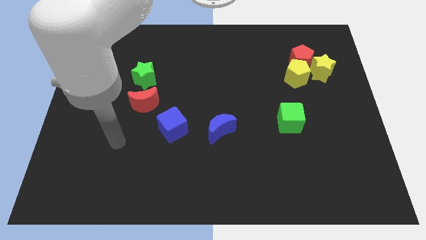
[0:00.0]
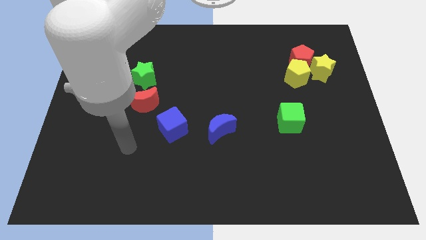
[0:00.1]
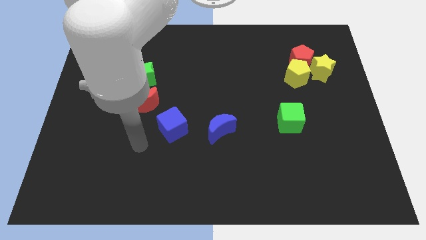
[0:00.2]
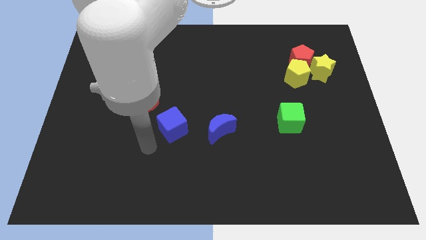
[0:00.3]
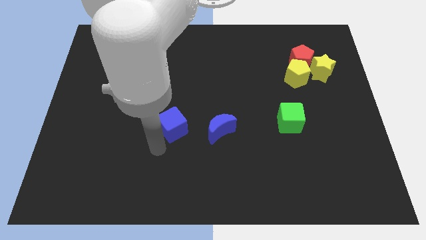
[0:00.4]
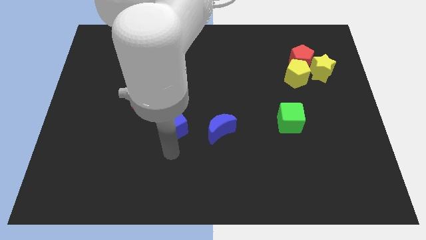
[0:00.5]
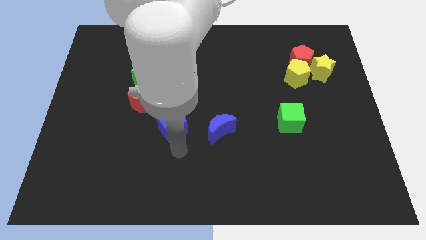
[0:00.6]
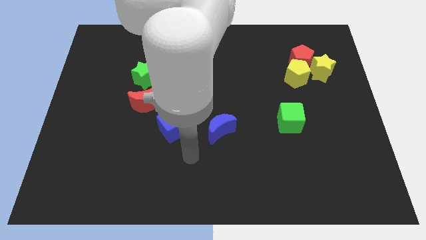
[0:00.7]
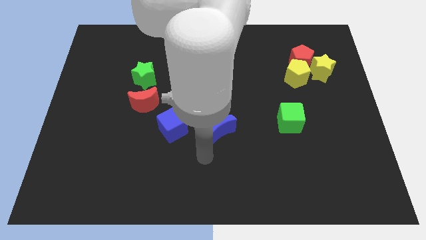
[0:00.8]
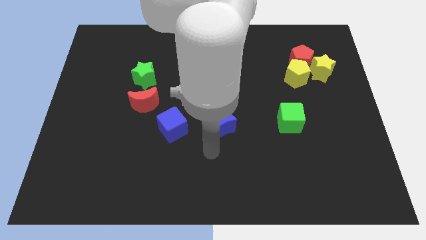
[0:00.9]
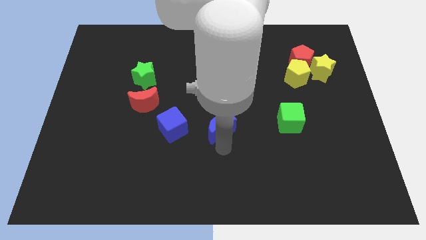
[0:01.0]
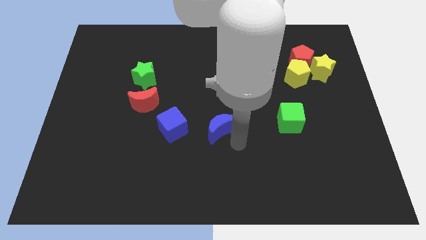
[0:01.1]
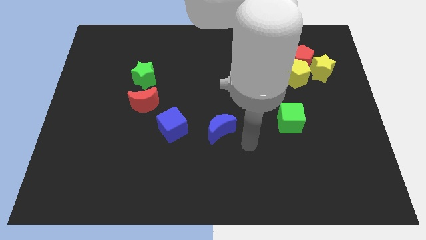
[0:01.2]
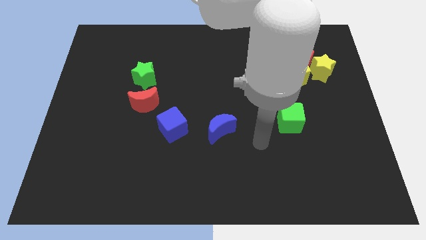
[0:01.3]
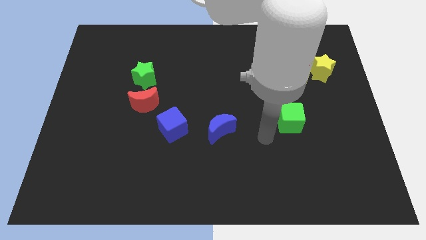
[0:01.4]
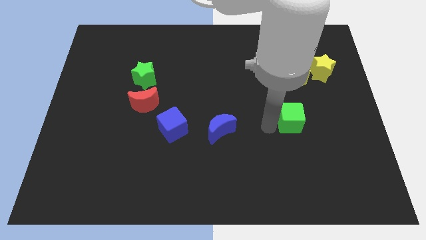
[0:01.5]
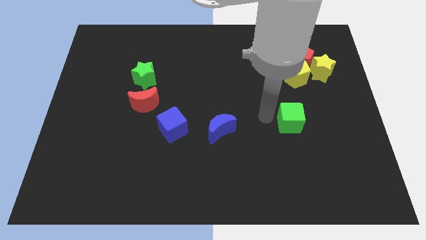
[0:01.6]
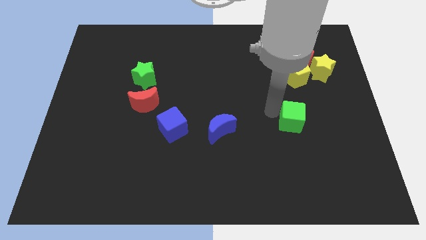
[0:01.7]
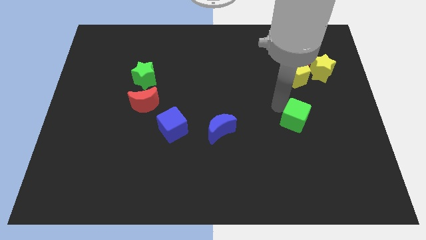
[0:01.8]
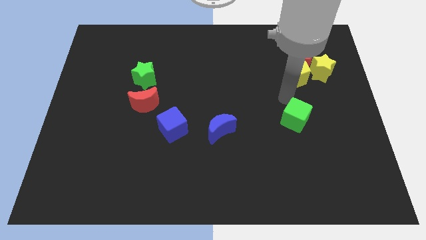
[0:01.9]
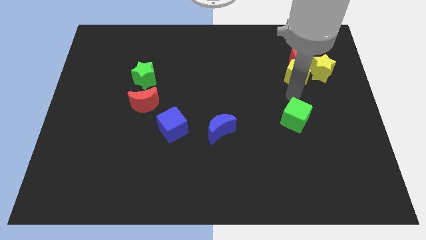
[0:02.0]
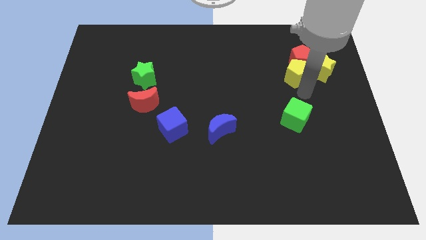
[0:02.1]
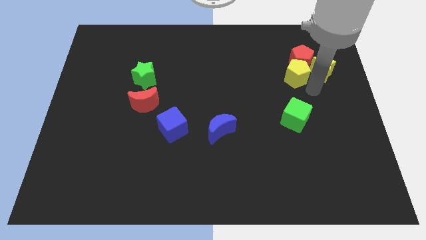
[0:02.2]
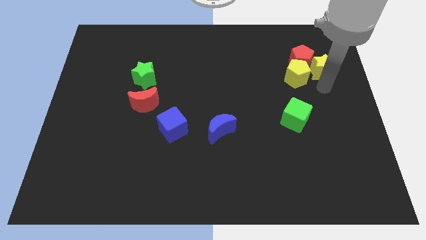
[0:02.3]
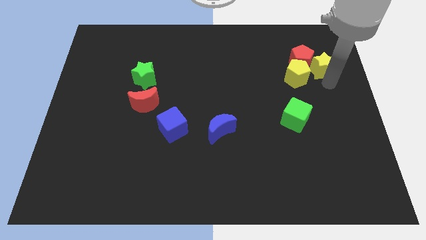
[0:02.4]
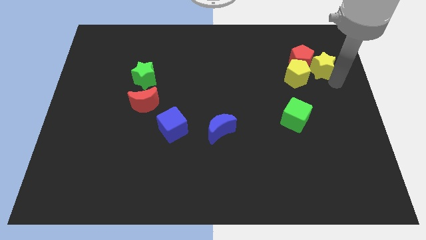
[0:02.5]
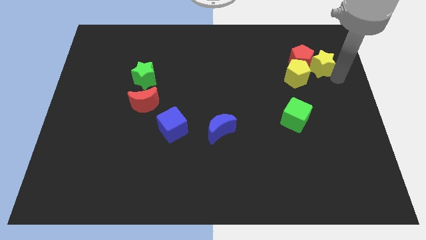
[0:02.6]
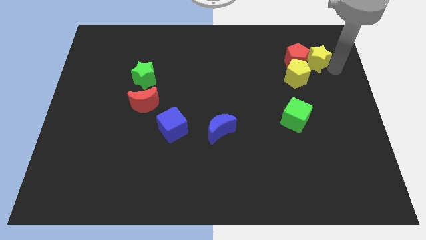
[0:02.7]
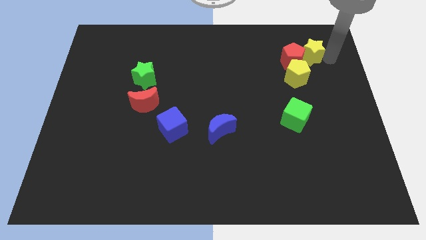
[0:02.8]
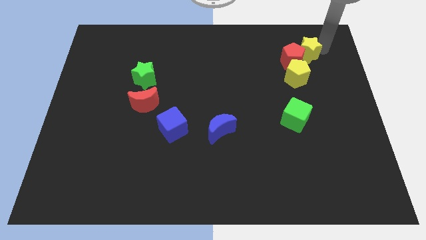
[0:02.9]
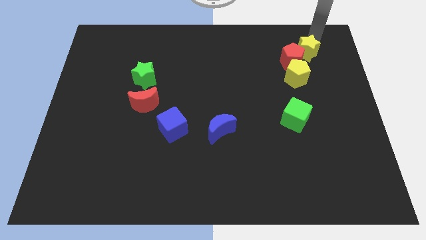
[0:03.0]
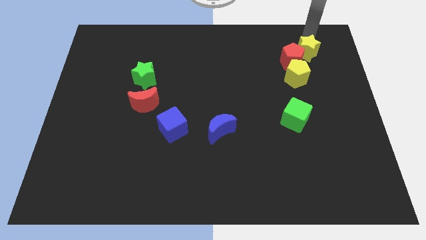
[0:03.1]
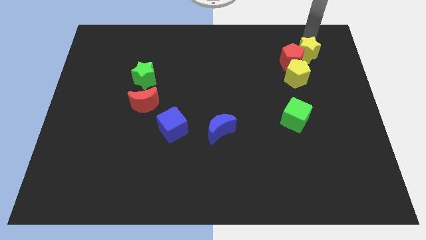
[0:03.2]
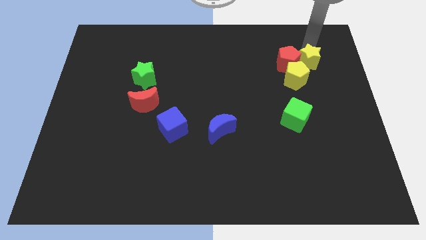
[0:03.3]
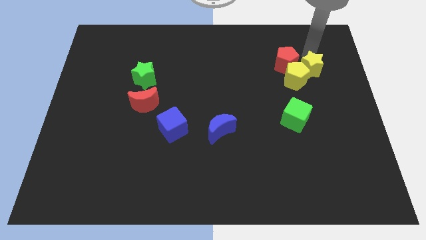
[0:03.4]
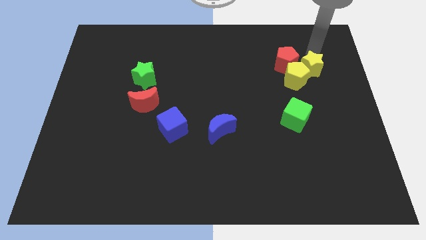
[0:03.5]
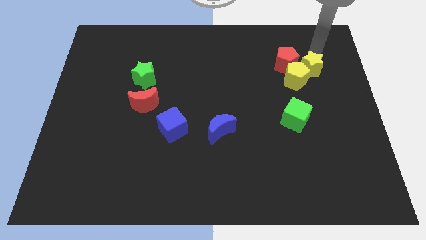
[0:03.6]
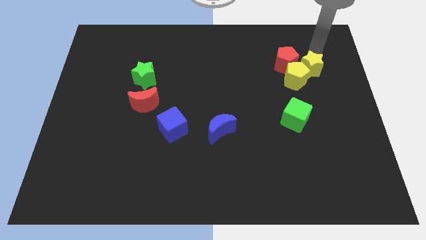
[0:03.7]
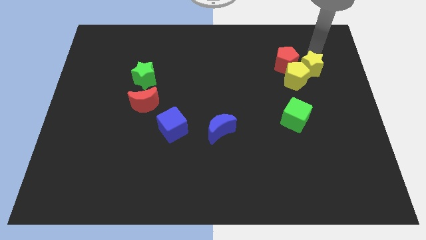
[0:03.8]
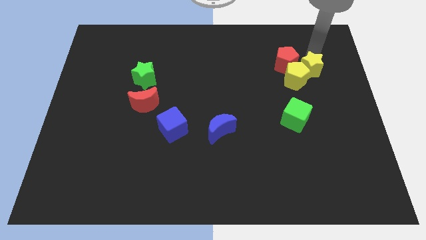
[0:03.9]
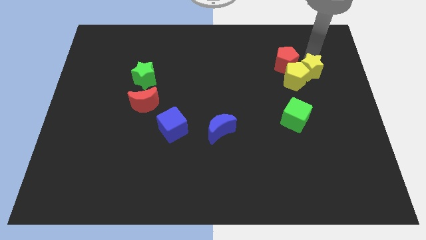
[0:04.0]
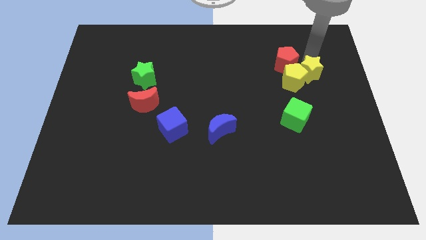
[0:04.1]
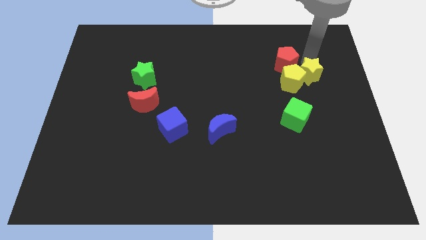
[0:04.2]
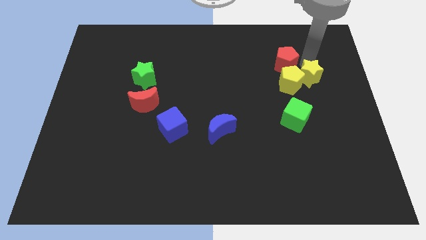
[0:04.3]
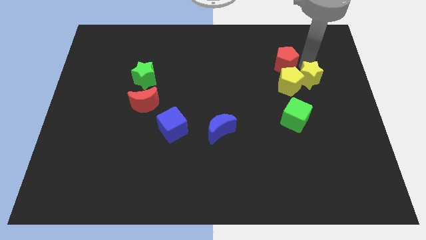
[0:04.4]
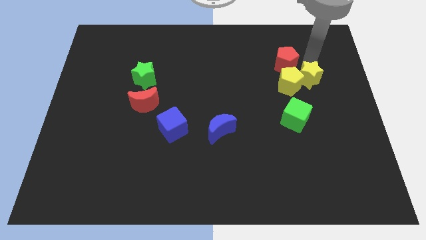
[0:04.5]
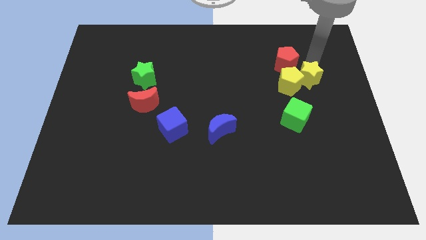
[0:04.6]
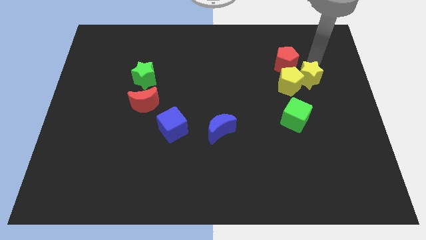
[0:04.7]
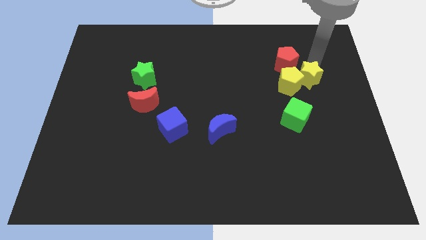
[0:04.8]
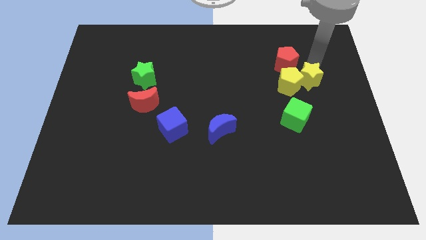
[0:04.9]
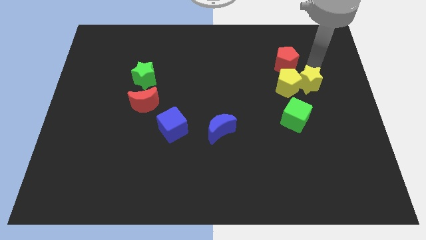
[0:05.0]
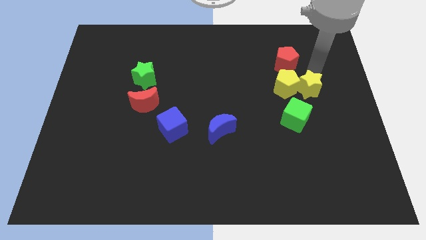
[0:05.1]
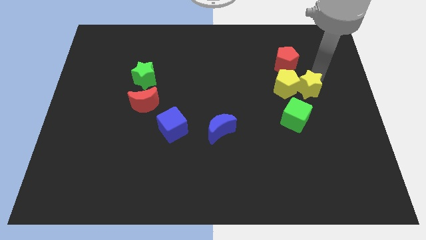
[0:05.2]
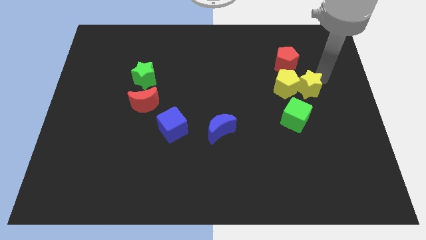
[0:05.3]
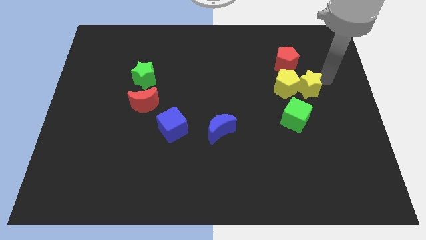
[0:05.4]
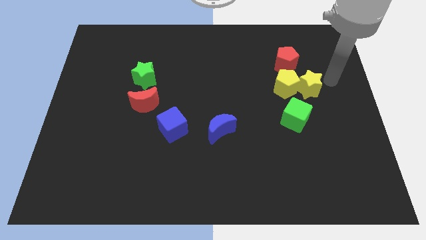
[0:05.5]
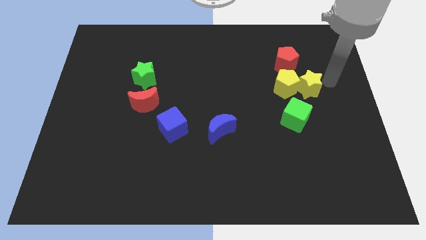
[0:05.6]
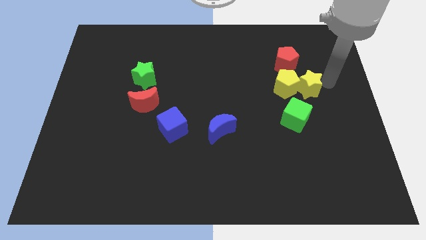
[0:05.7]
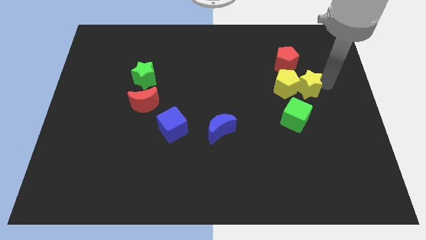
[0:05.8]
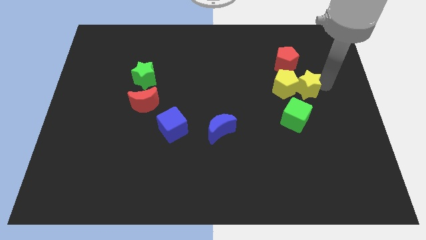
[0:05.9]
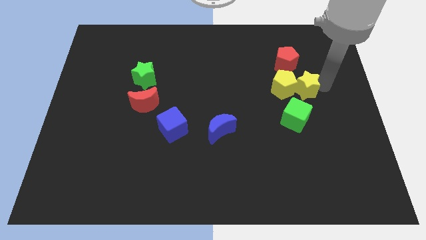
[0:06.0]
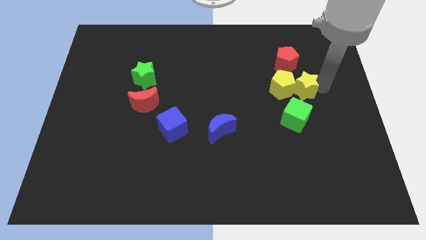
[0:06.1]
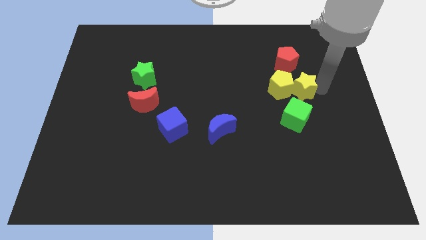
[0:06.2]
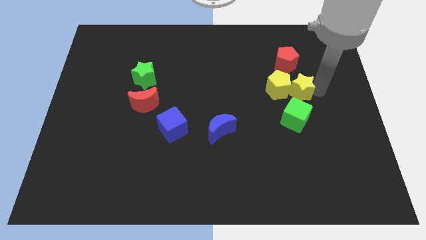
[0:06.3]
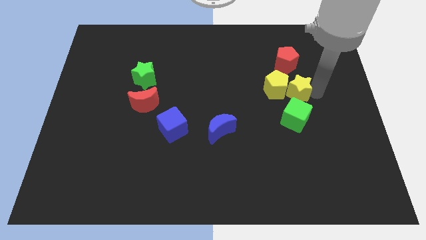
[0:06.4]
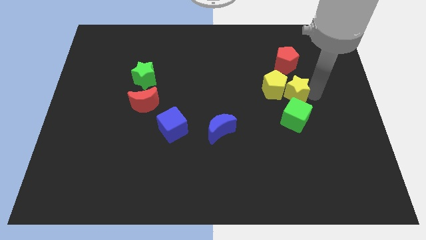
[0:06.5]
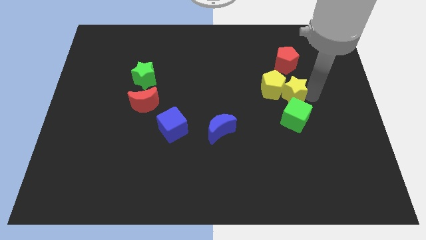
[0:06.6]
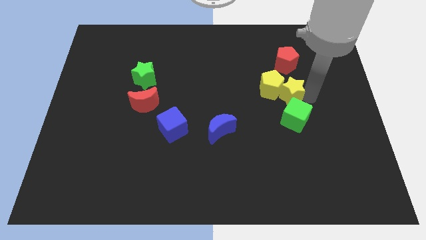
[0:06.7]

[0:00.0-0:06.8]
put the yellow star diagonally up and to the left of the green cube

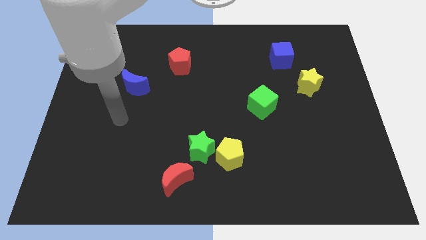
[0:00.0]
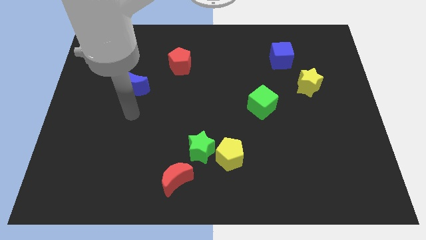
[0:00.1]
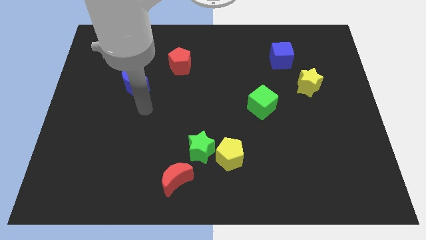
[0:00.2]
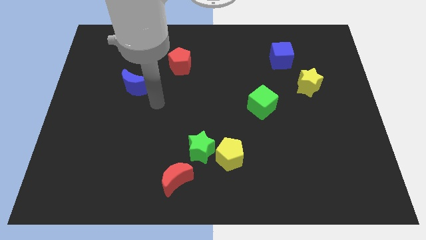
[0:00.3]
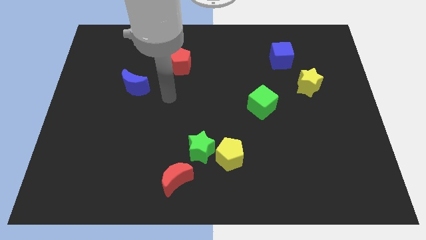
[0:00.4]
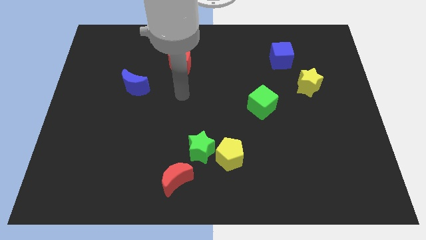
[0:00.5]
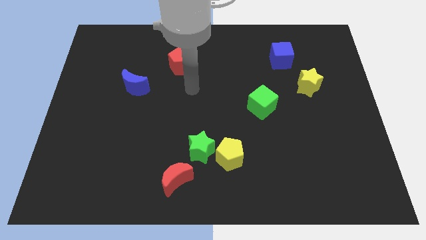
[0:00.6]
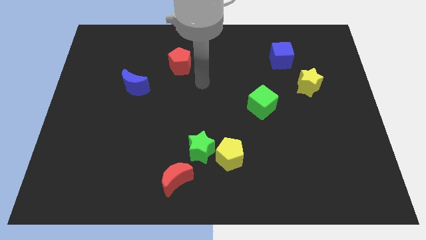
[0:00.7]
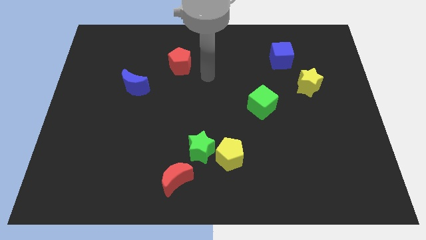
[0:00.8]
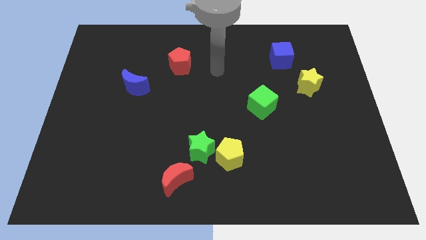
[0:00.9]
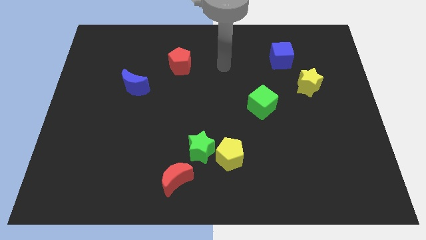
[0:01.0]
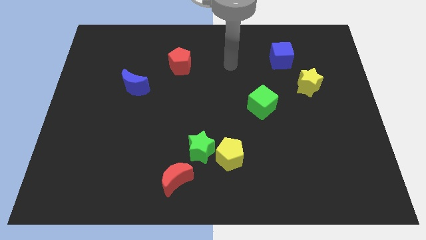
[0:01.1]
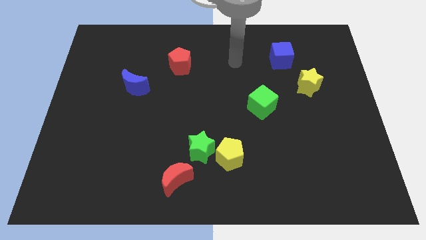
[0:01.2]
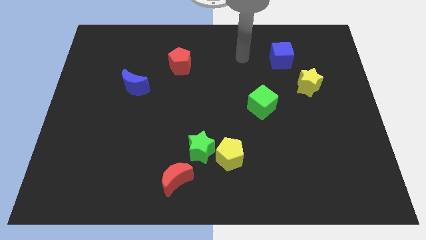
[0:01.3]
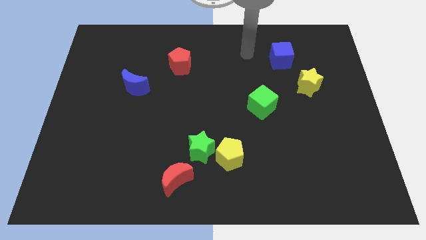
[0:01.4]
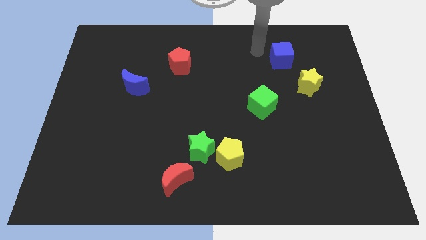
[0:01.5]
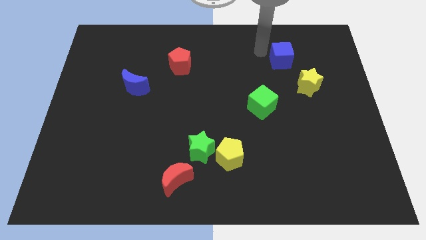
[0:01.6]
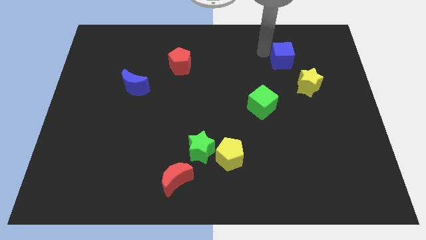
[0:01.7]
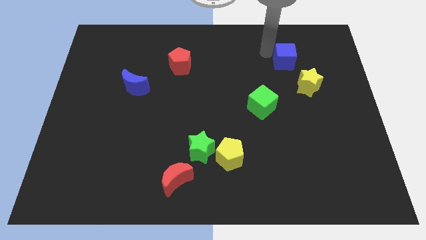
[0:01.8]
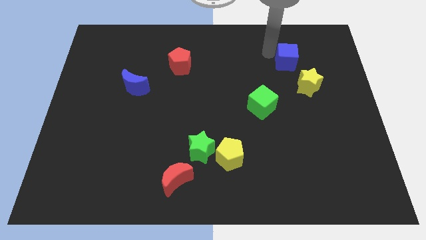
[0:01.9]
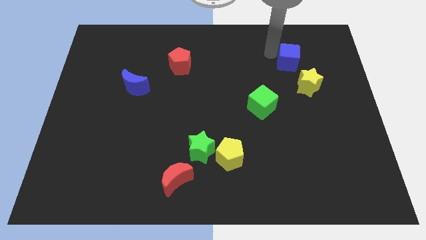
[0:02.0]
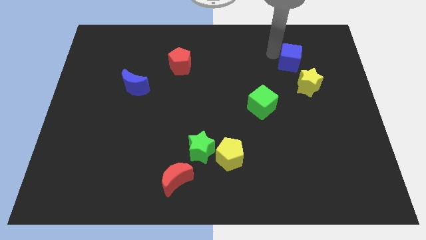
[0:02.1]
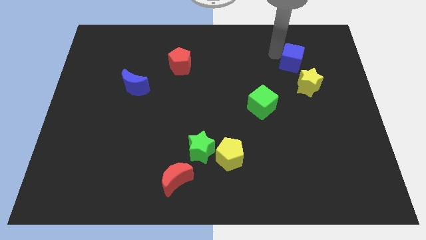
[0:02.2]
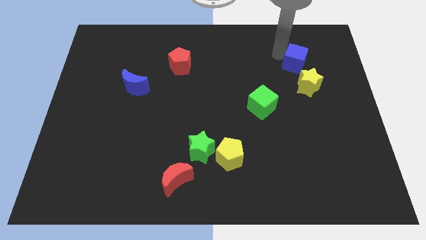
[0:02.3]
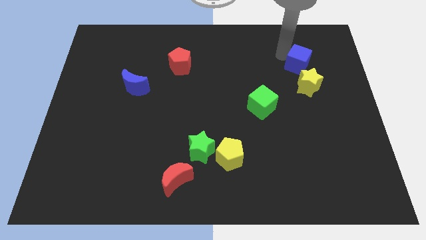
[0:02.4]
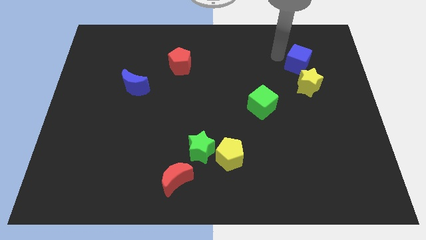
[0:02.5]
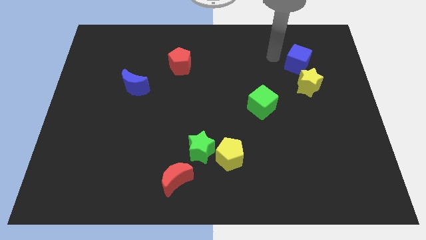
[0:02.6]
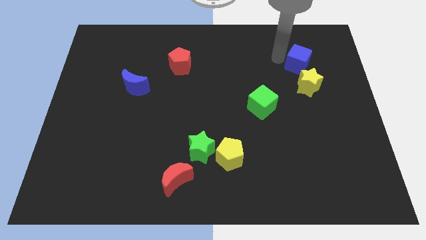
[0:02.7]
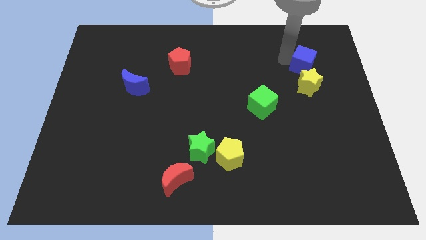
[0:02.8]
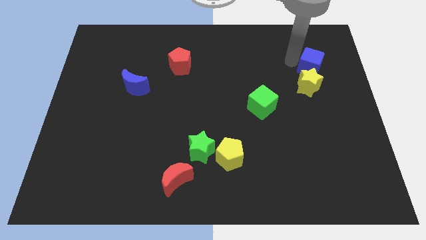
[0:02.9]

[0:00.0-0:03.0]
slide the blue cube to the top right side of the yellow star
